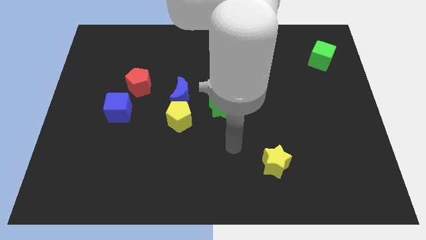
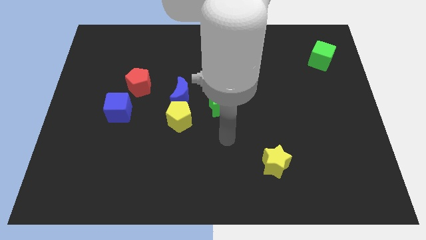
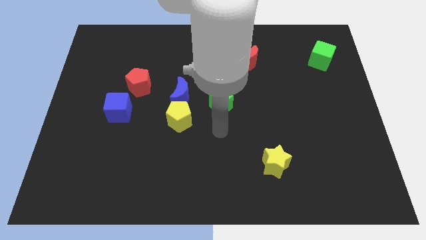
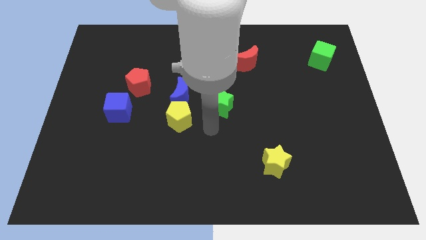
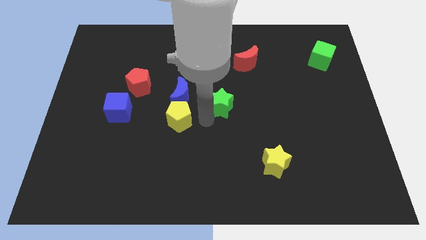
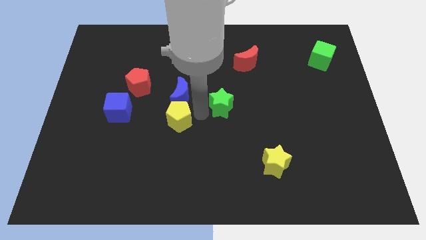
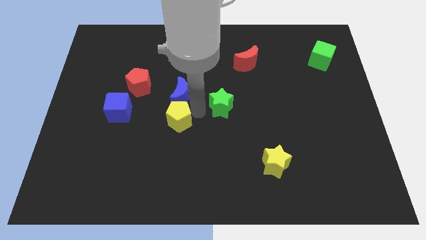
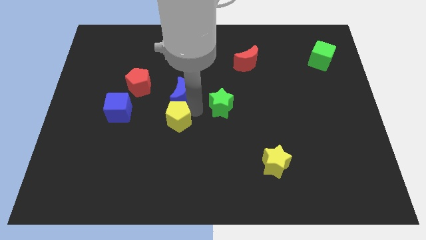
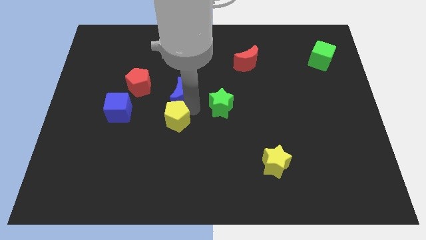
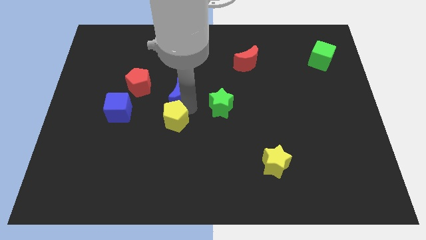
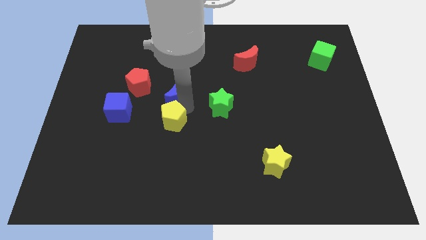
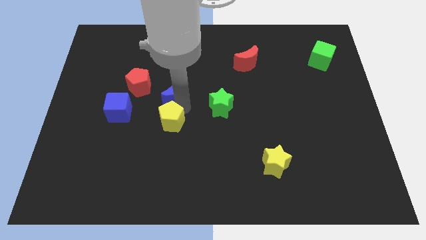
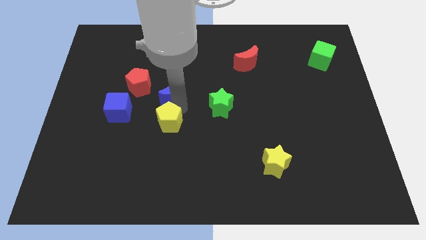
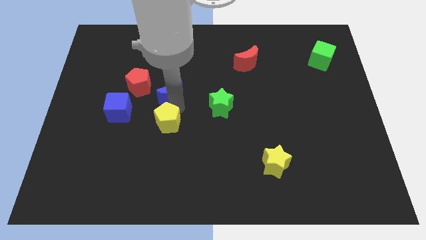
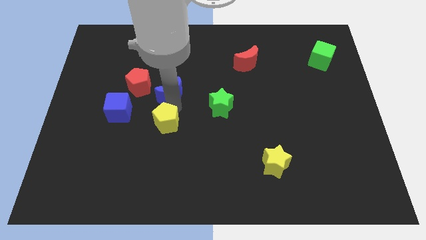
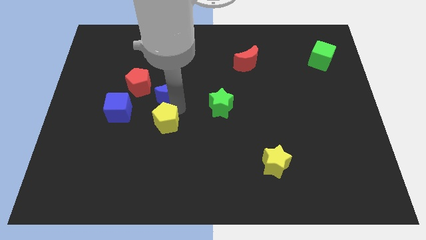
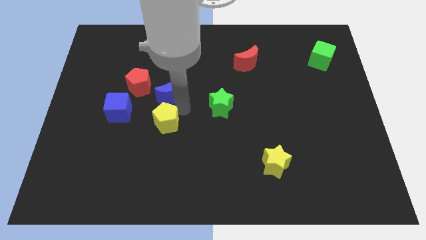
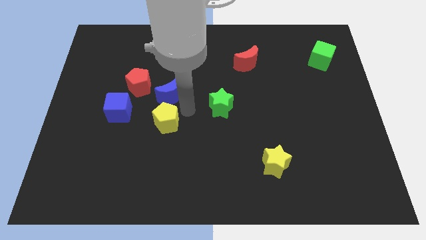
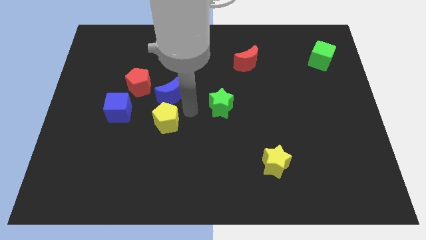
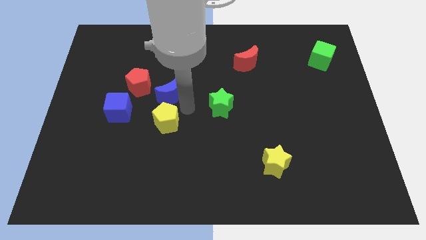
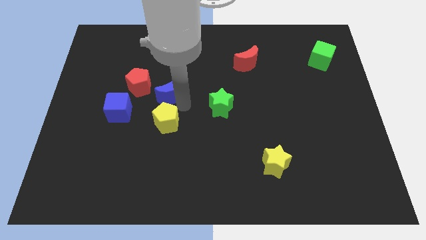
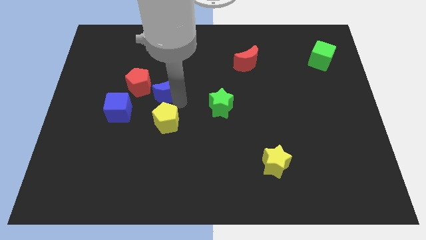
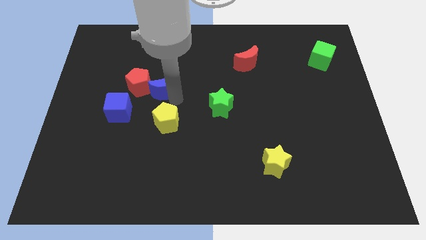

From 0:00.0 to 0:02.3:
move the blue moon away from the yellow pentagon and green star

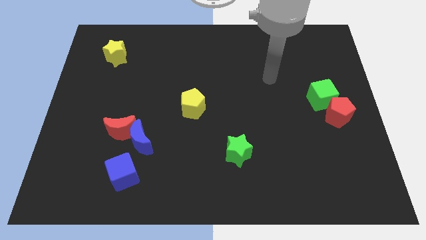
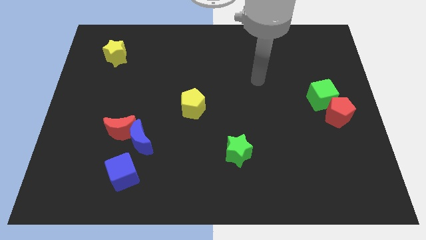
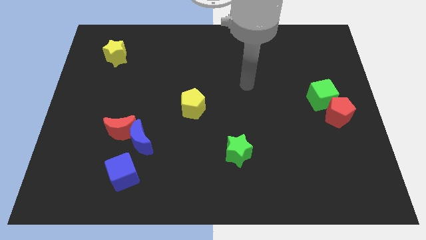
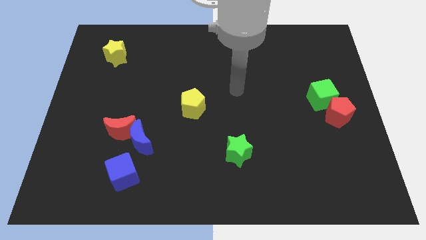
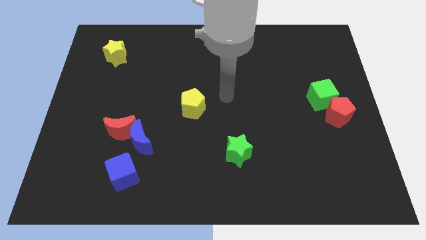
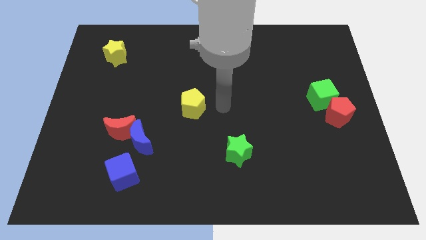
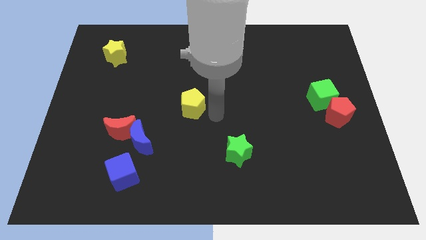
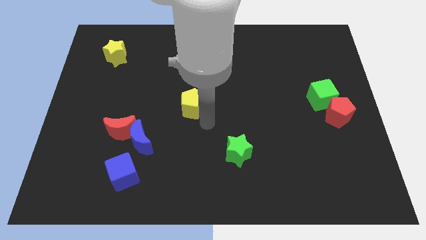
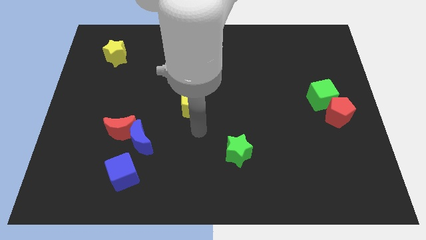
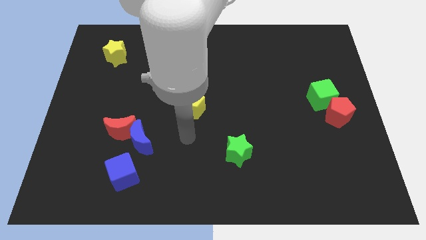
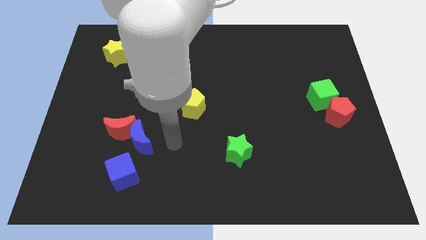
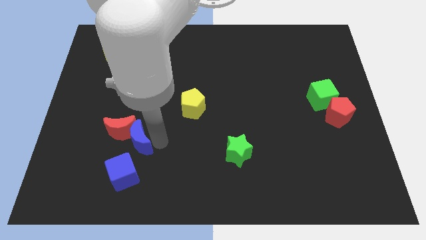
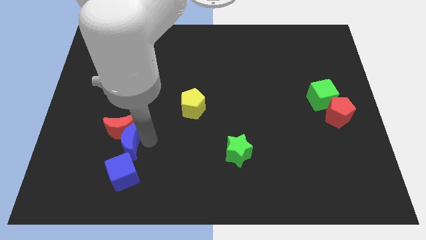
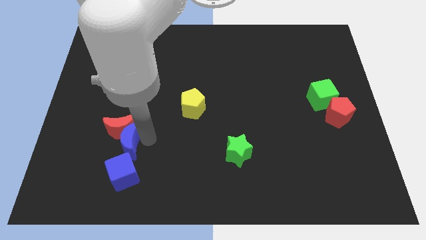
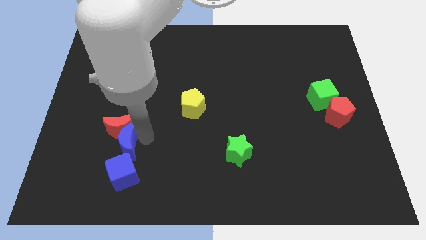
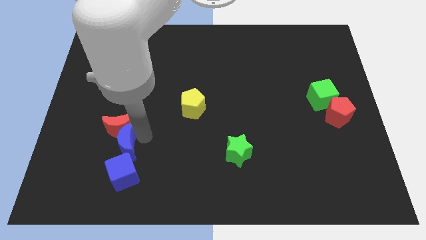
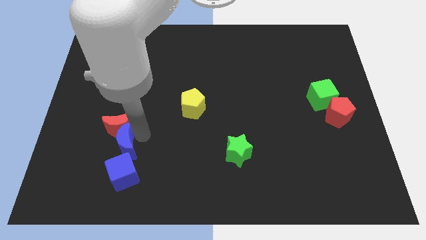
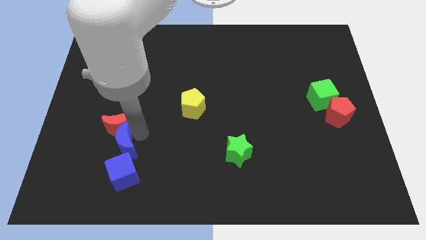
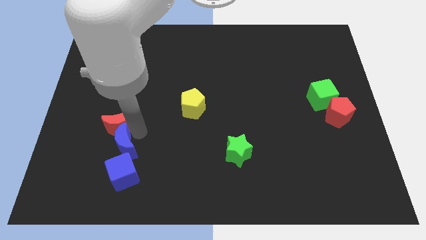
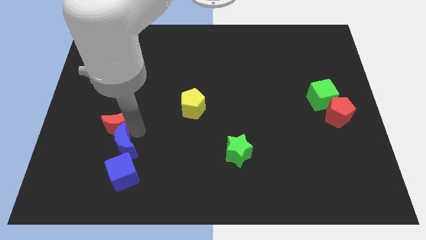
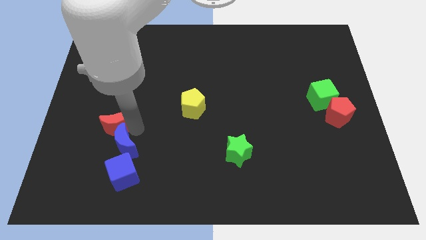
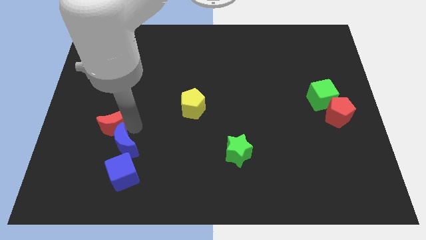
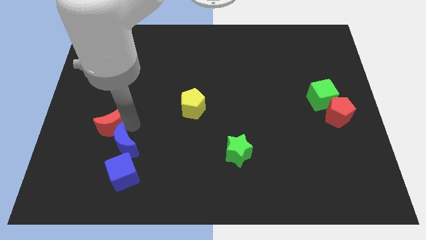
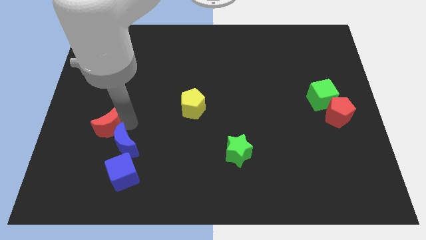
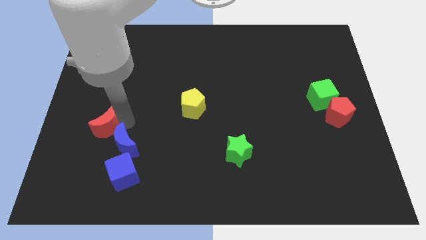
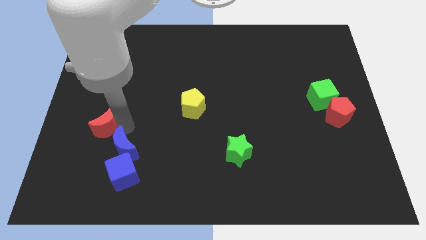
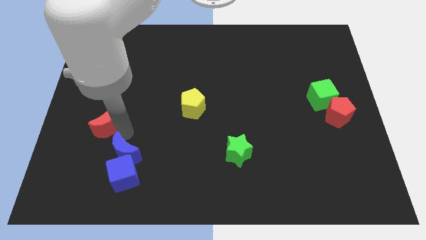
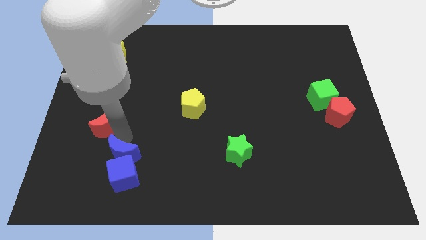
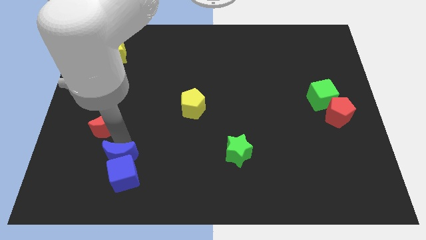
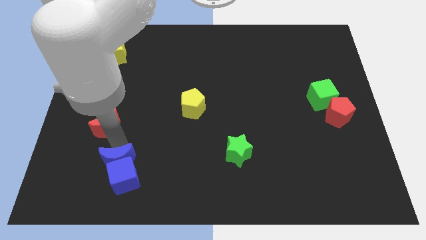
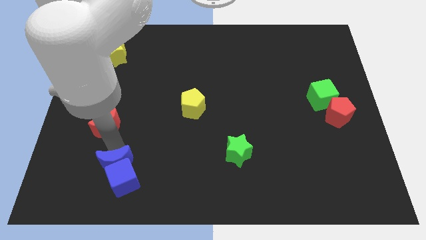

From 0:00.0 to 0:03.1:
separate the red moon from the blue moon

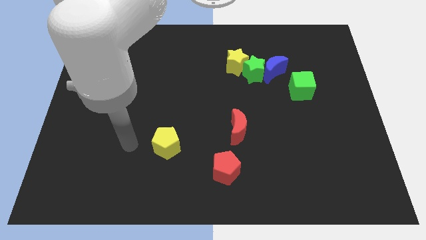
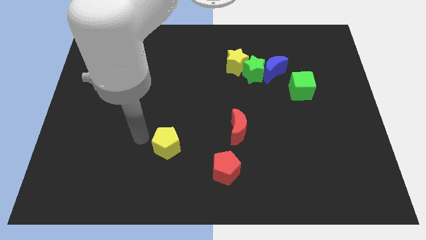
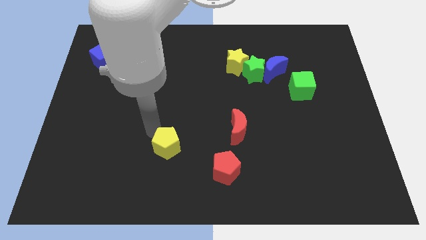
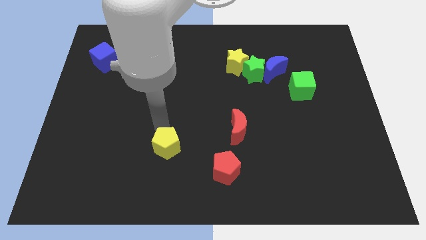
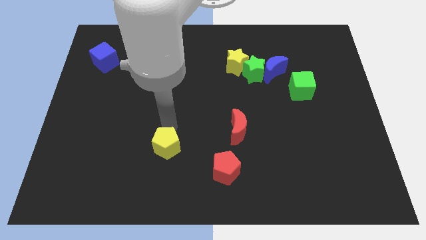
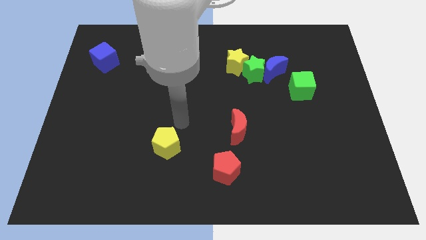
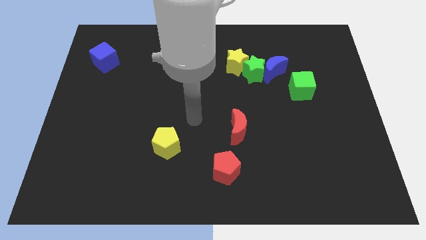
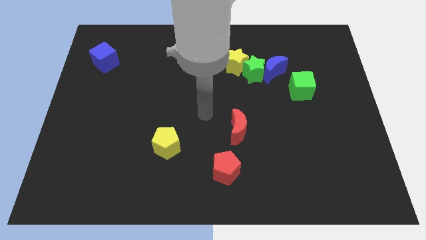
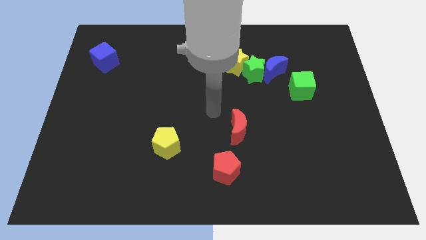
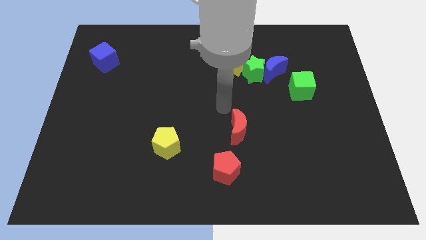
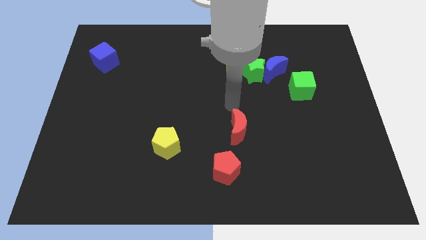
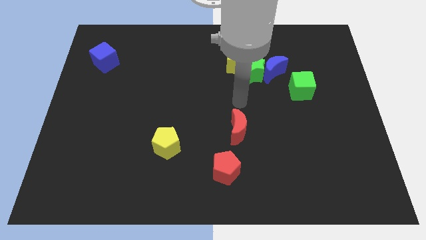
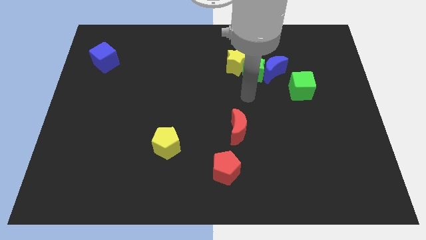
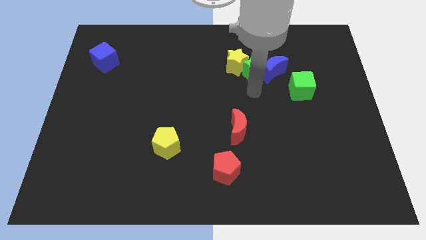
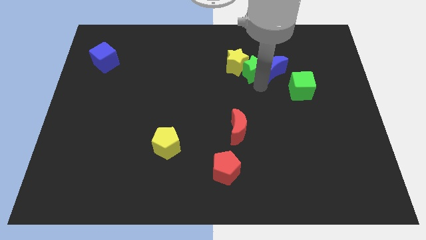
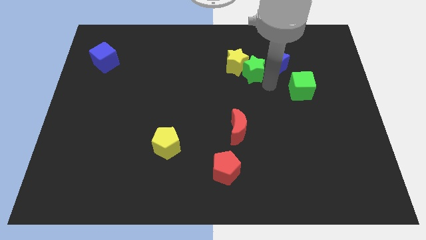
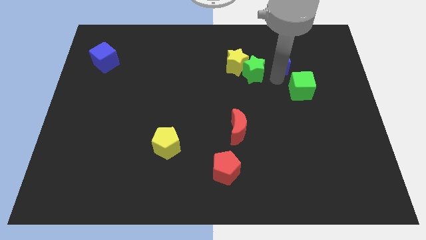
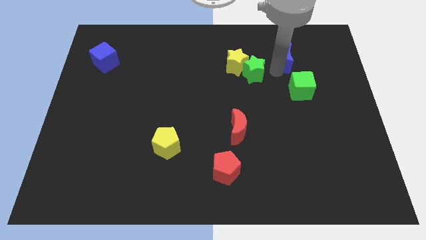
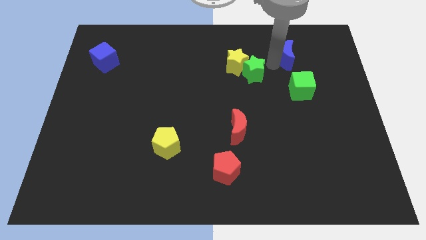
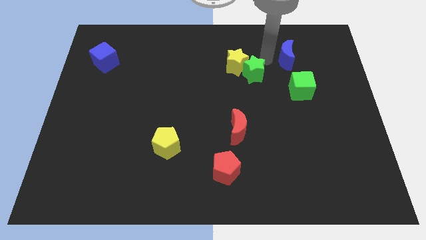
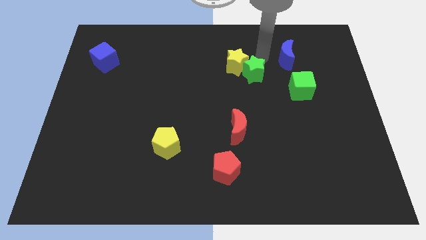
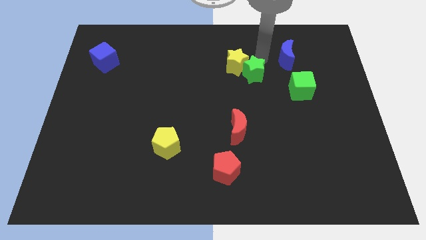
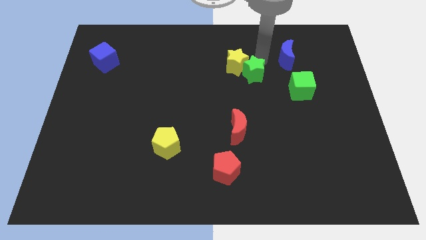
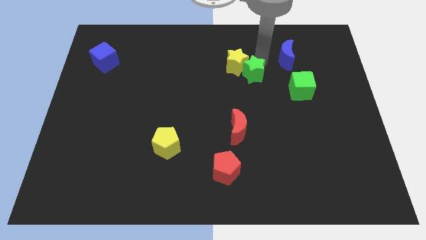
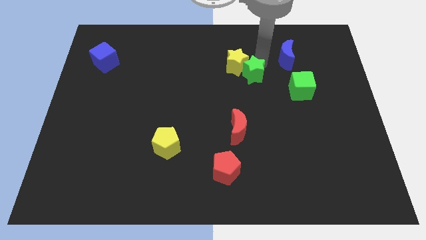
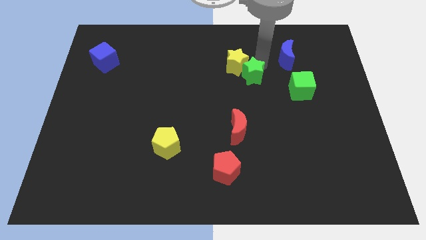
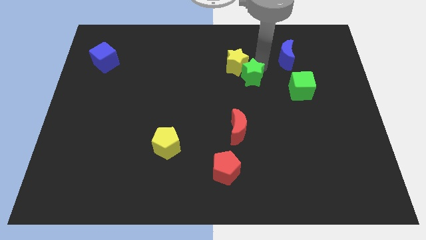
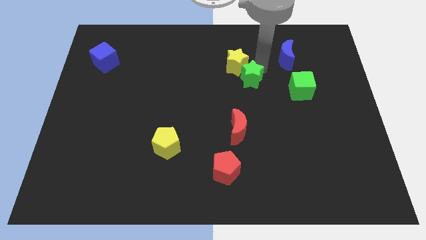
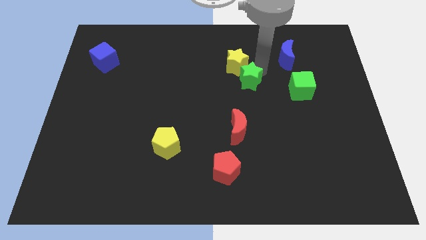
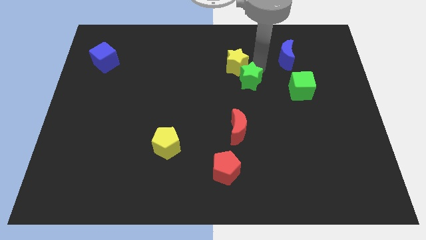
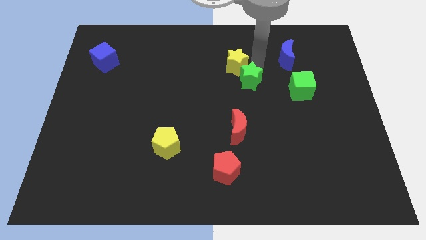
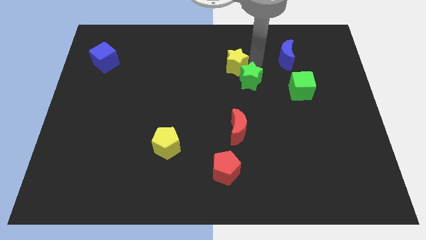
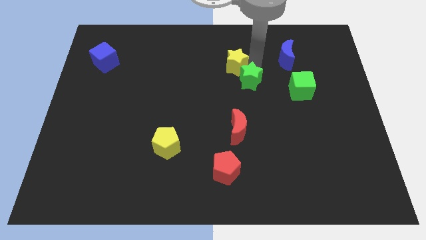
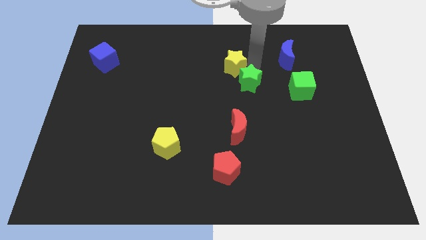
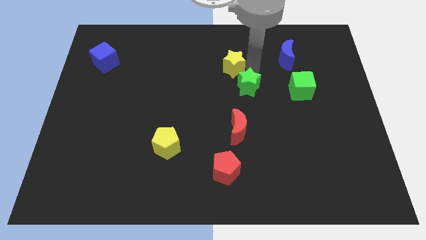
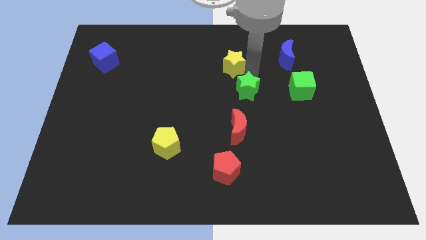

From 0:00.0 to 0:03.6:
pull the green star apart from the yellow star and blue moon
